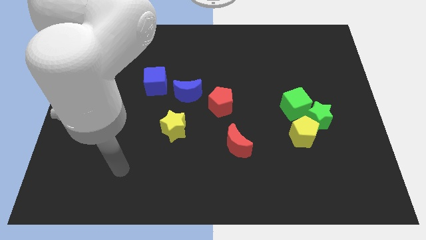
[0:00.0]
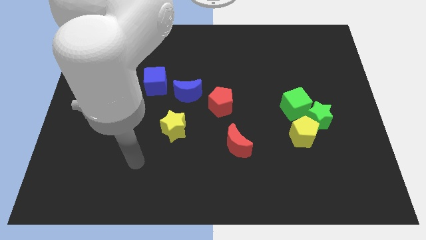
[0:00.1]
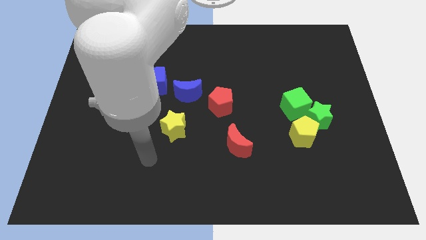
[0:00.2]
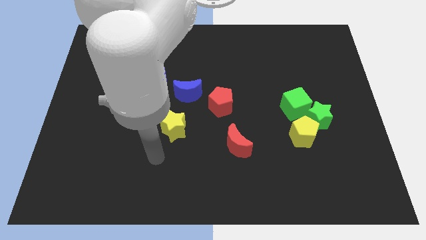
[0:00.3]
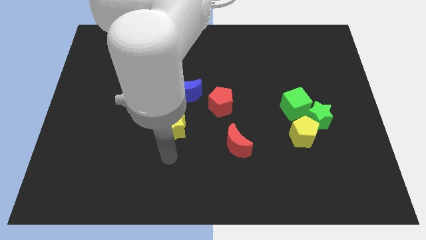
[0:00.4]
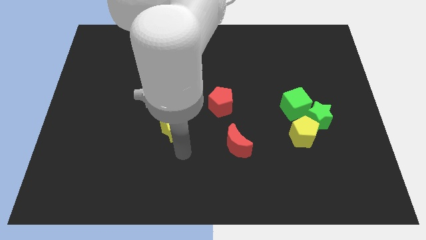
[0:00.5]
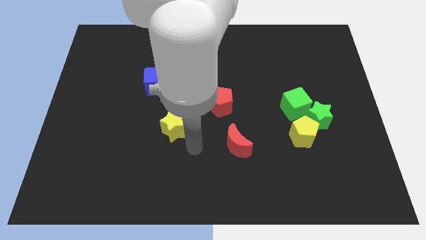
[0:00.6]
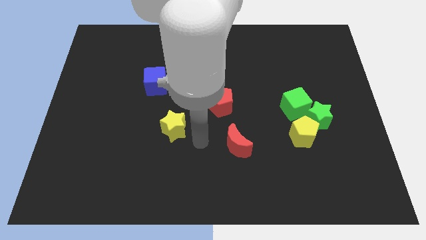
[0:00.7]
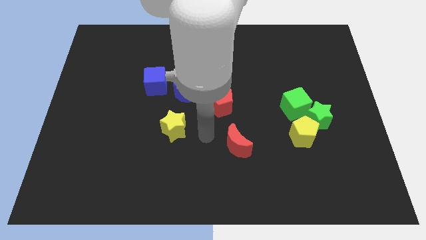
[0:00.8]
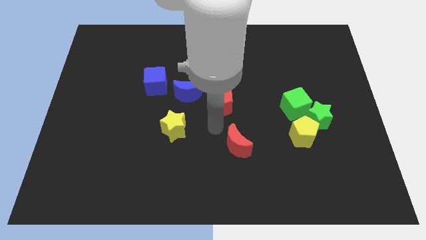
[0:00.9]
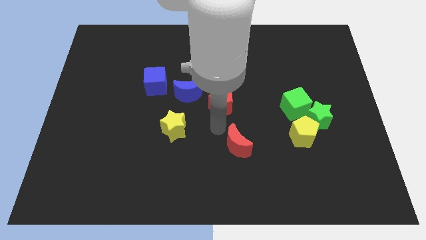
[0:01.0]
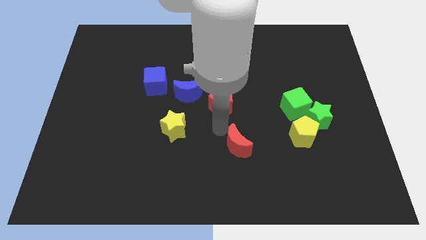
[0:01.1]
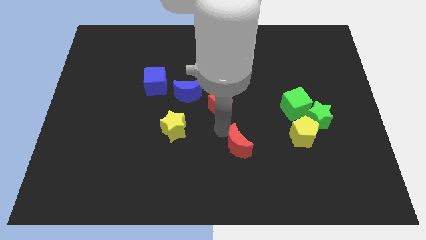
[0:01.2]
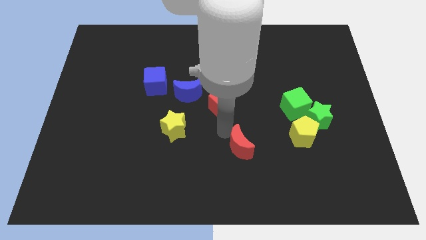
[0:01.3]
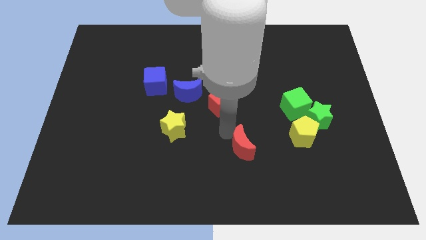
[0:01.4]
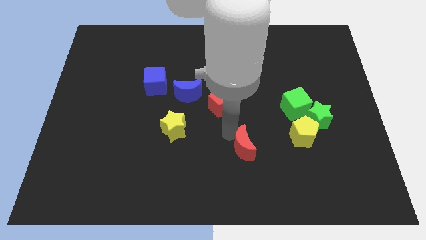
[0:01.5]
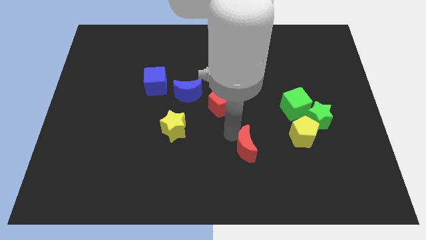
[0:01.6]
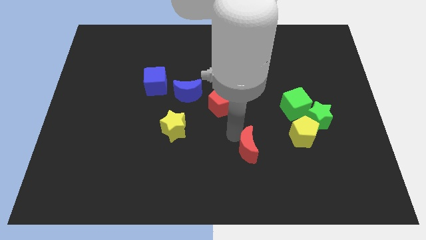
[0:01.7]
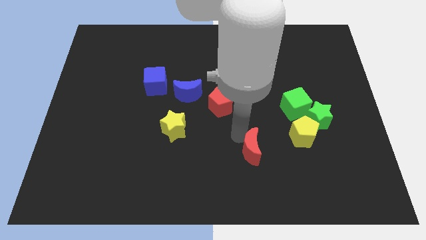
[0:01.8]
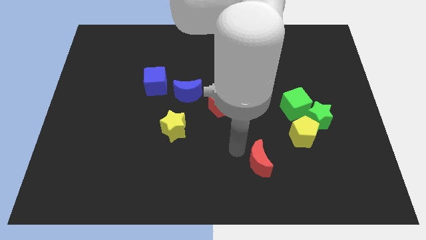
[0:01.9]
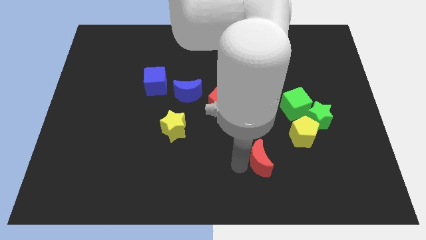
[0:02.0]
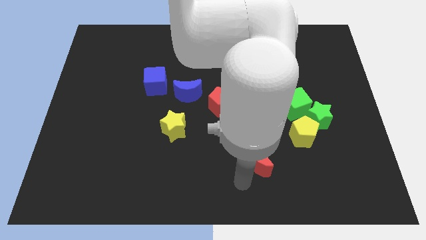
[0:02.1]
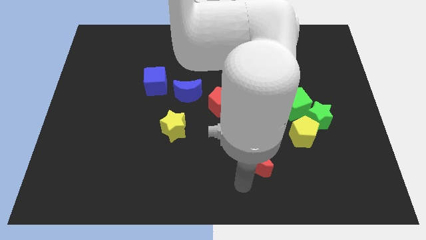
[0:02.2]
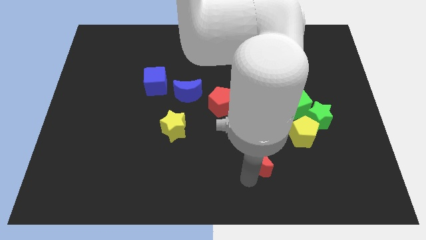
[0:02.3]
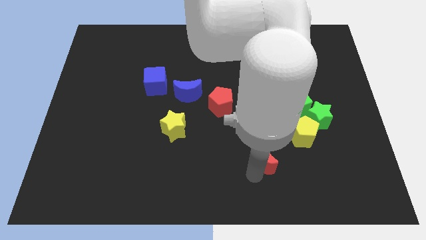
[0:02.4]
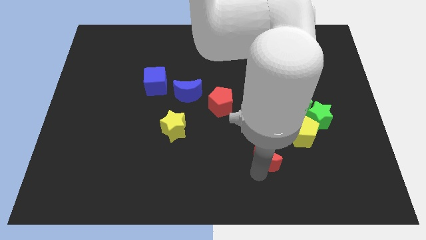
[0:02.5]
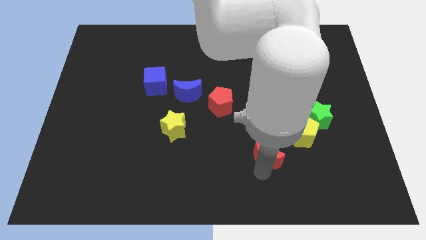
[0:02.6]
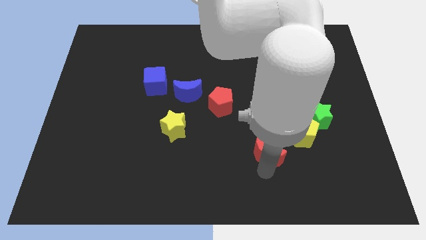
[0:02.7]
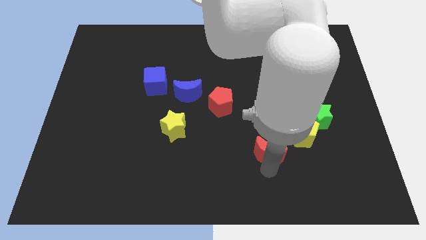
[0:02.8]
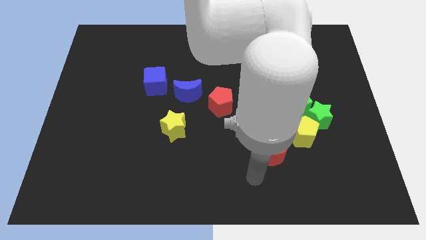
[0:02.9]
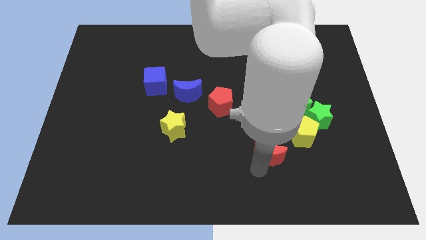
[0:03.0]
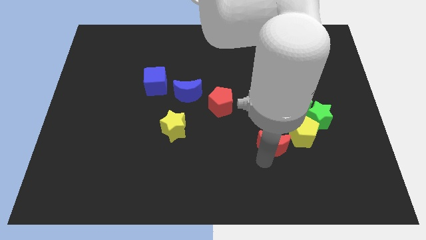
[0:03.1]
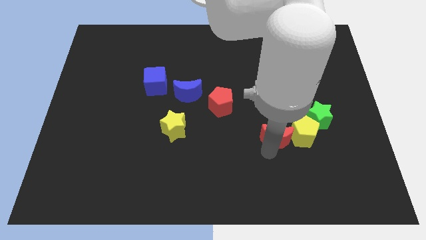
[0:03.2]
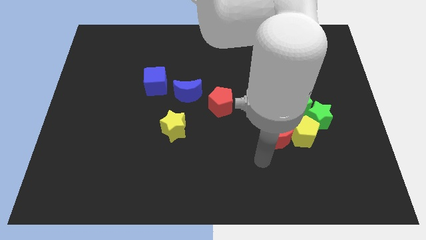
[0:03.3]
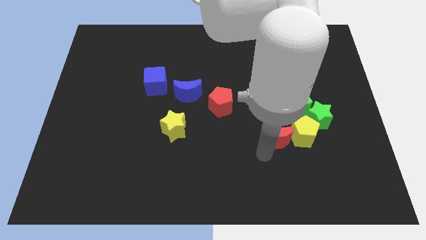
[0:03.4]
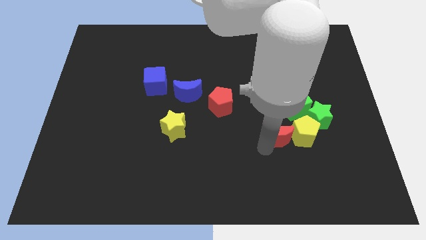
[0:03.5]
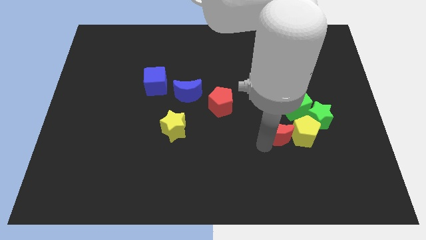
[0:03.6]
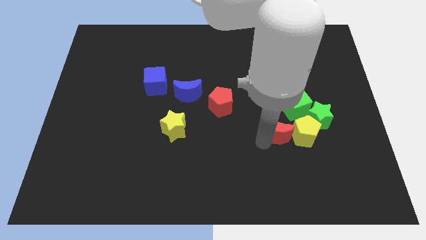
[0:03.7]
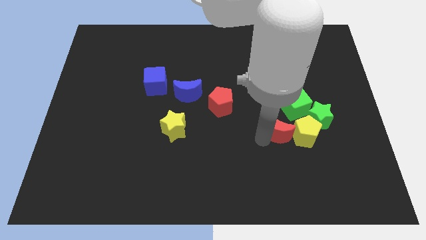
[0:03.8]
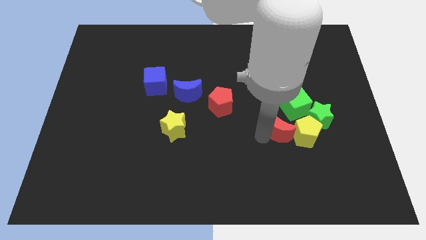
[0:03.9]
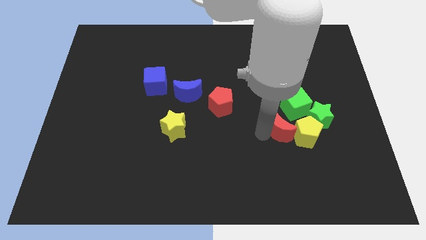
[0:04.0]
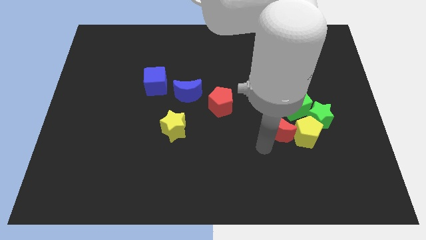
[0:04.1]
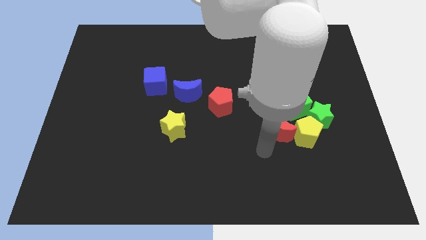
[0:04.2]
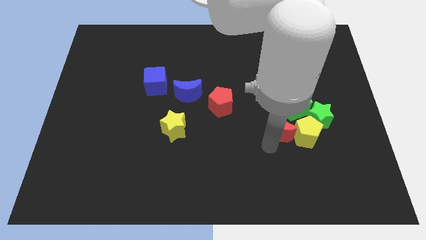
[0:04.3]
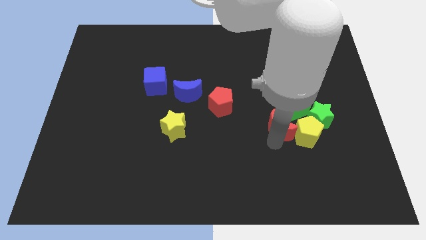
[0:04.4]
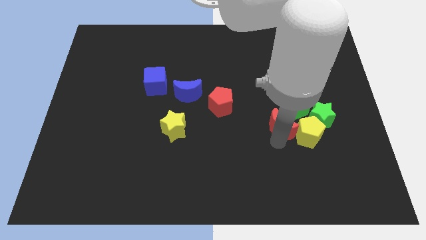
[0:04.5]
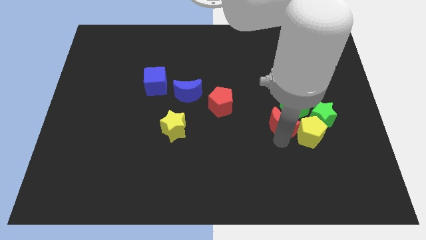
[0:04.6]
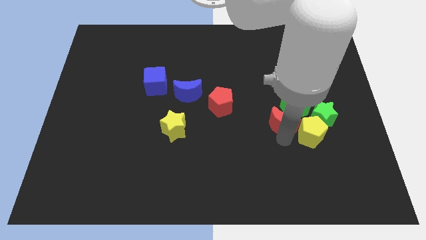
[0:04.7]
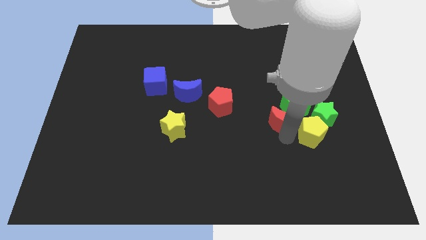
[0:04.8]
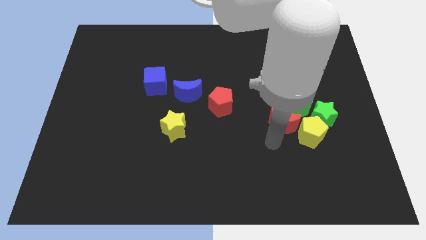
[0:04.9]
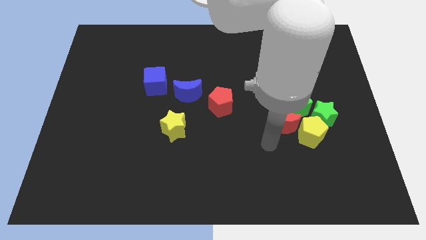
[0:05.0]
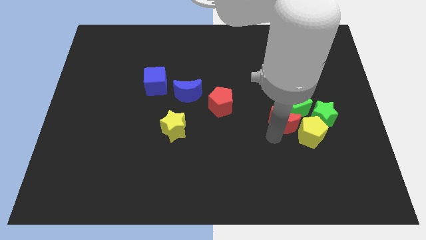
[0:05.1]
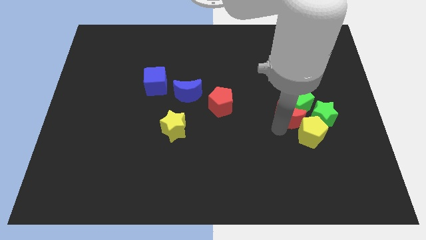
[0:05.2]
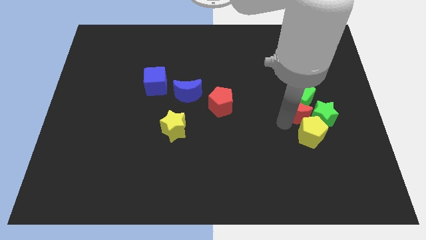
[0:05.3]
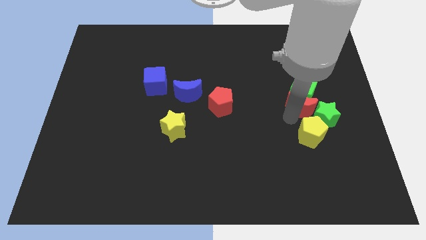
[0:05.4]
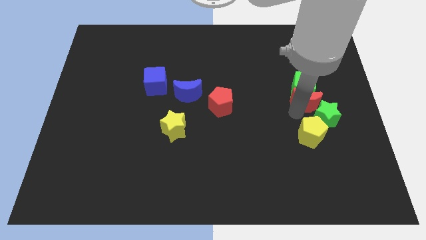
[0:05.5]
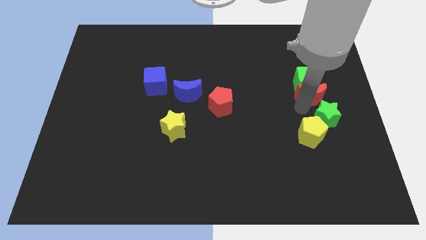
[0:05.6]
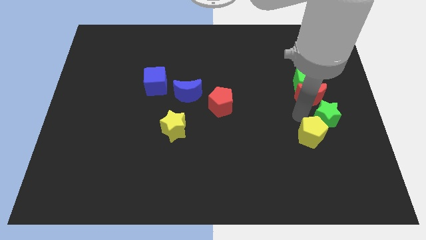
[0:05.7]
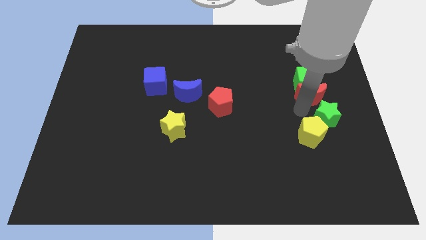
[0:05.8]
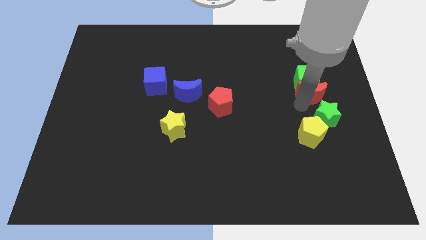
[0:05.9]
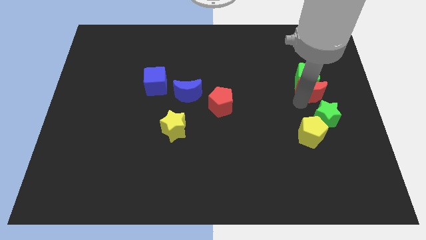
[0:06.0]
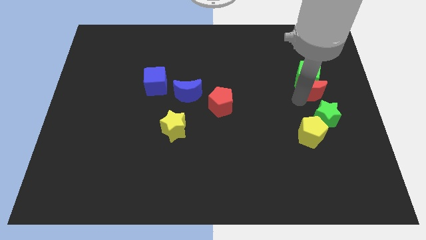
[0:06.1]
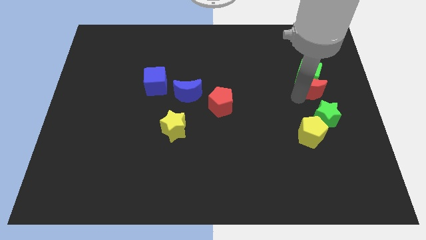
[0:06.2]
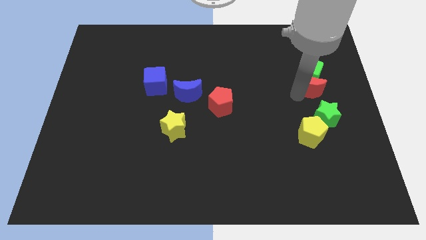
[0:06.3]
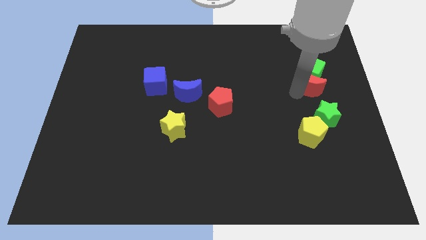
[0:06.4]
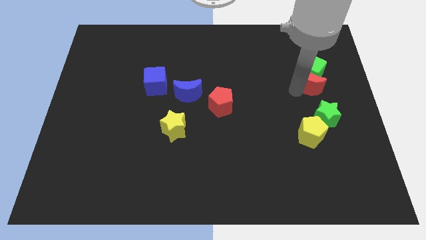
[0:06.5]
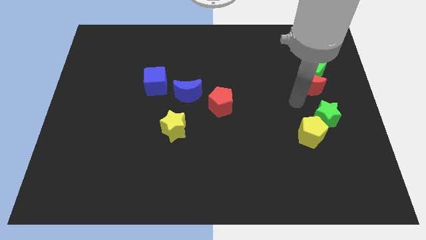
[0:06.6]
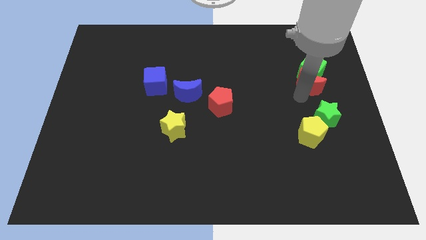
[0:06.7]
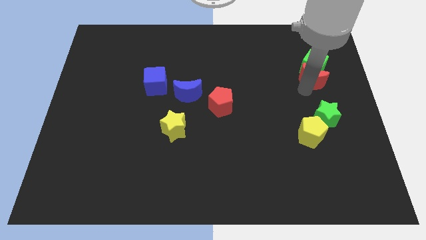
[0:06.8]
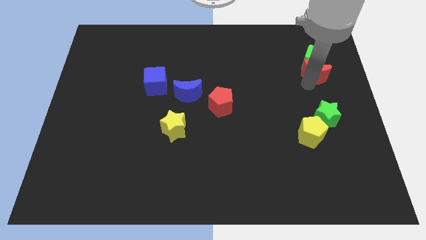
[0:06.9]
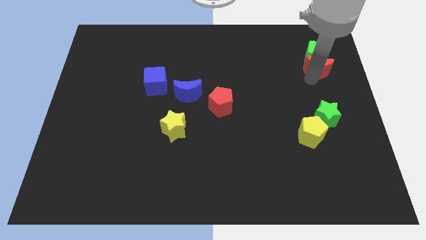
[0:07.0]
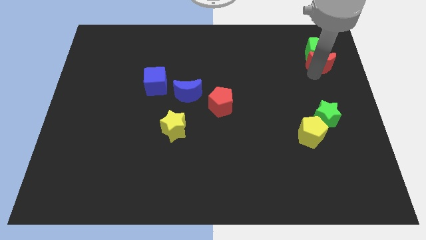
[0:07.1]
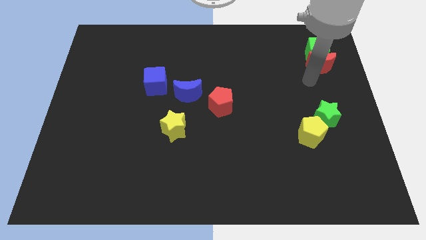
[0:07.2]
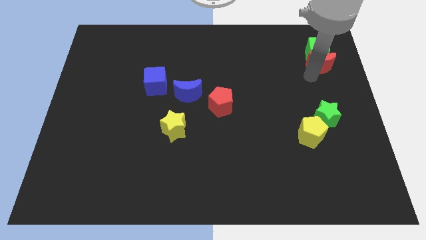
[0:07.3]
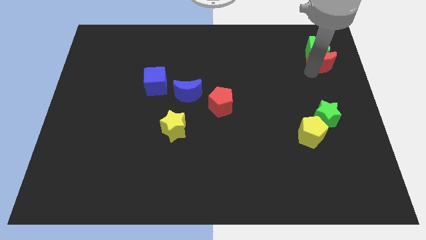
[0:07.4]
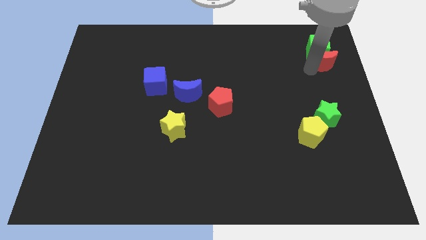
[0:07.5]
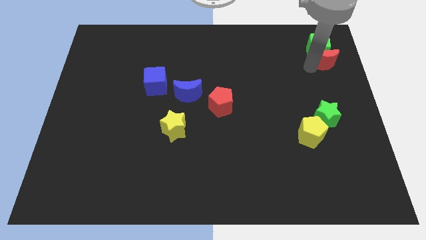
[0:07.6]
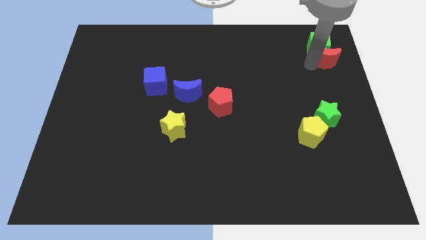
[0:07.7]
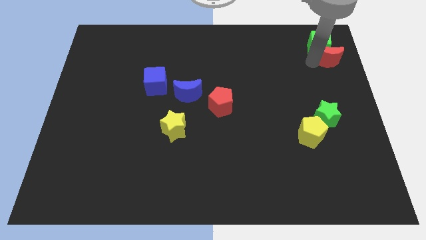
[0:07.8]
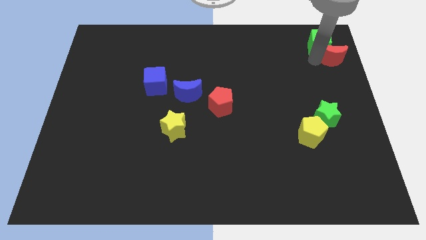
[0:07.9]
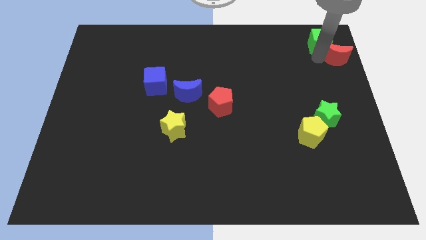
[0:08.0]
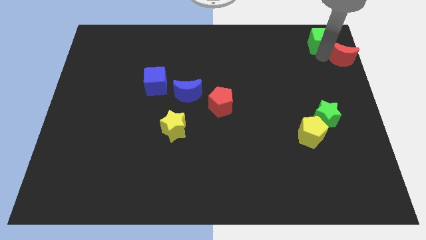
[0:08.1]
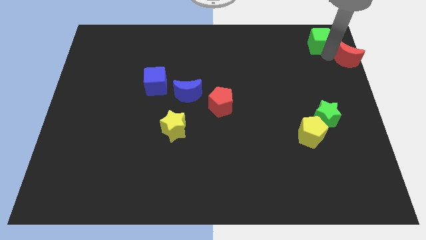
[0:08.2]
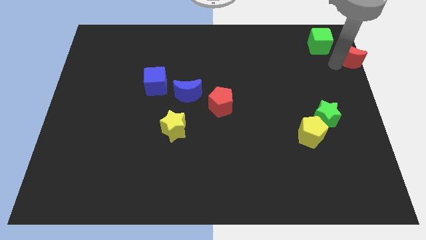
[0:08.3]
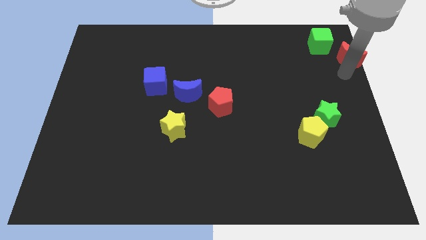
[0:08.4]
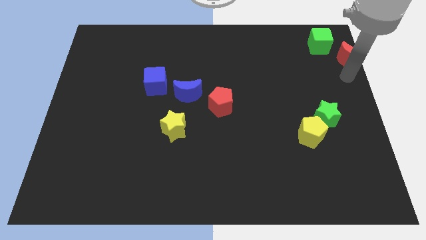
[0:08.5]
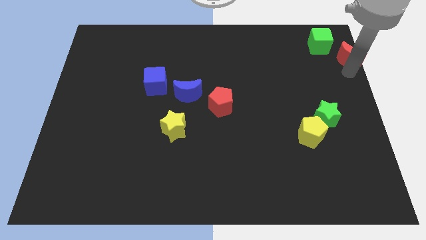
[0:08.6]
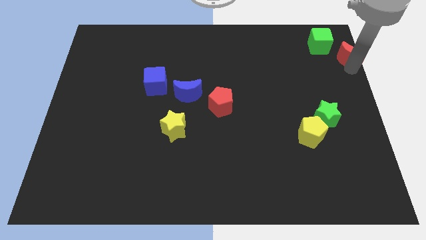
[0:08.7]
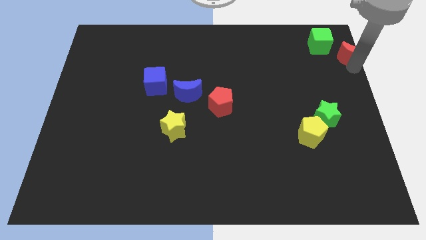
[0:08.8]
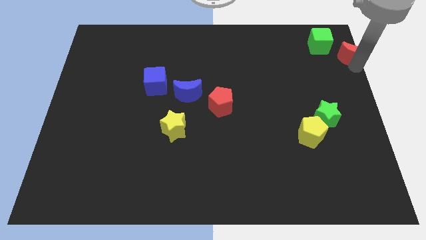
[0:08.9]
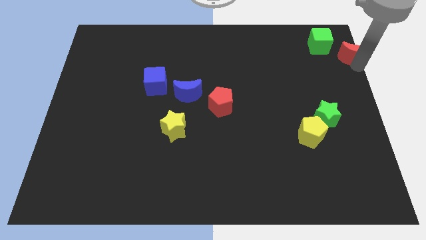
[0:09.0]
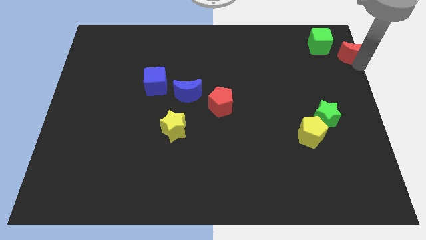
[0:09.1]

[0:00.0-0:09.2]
push the red moon to the top right of the board
